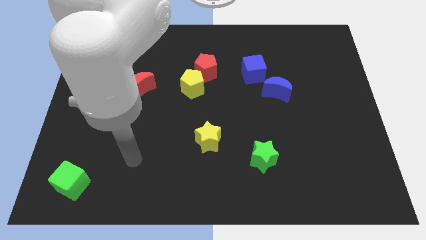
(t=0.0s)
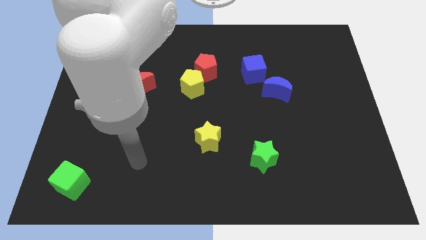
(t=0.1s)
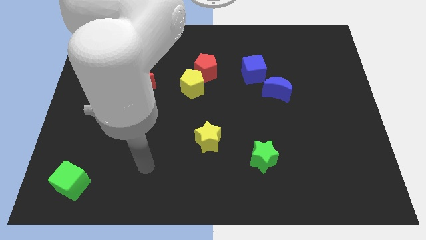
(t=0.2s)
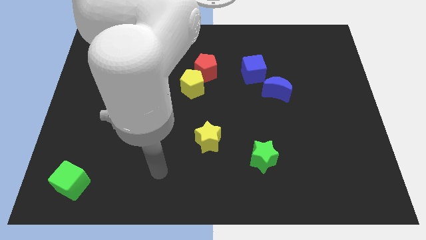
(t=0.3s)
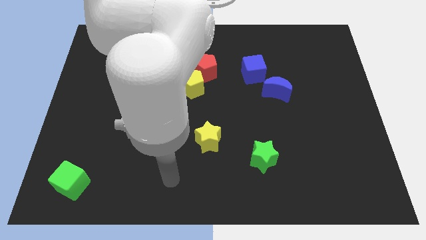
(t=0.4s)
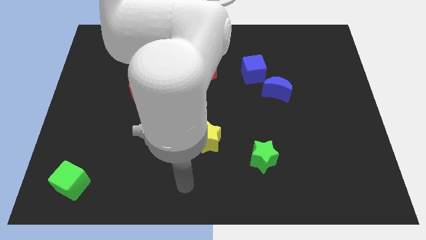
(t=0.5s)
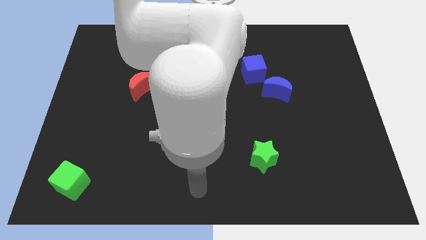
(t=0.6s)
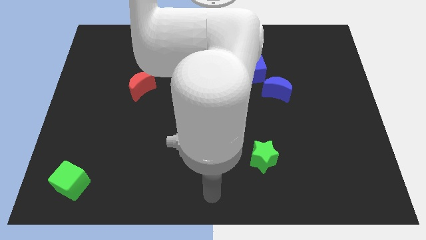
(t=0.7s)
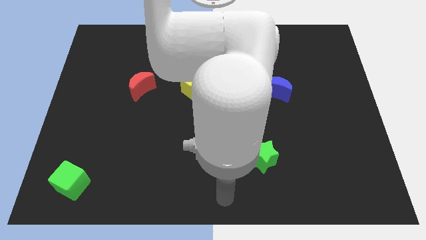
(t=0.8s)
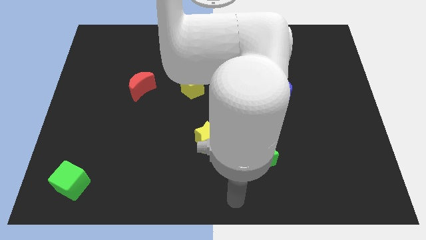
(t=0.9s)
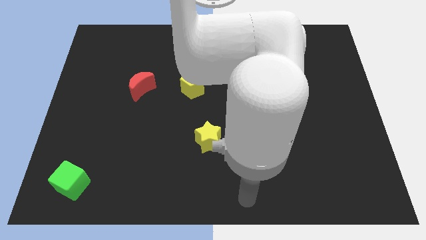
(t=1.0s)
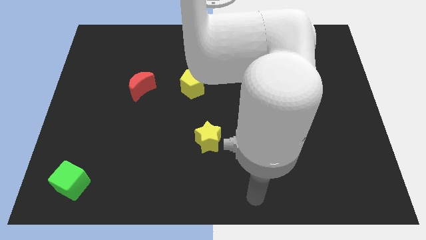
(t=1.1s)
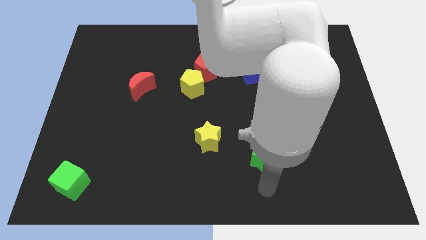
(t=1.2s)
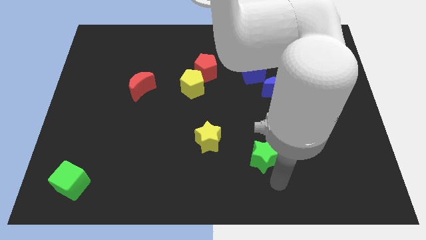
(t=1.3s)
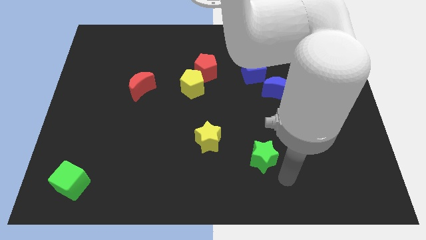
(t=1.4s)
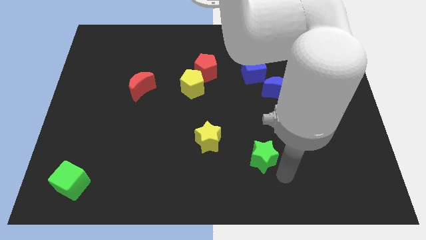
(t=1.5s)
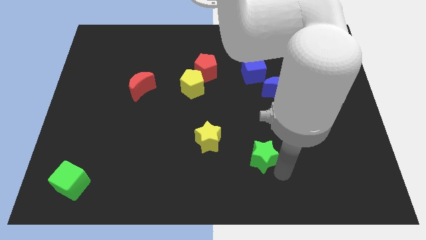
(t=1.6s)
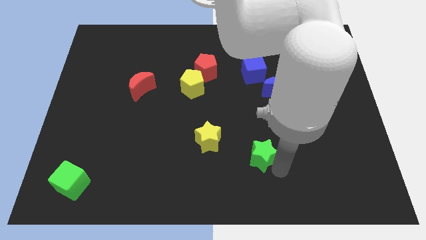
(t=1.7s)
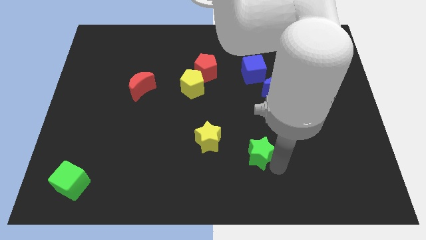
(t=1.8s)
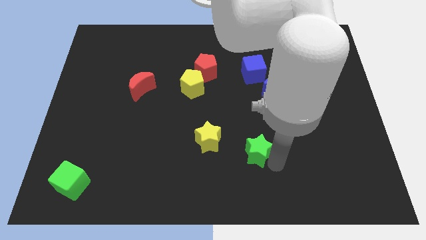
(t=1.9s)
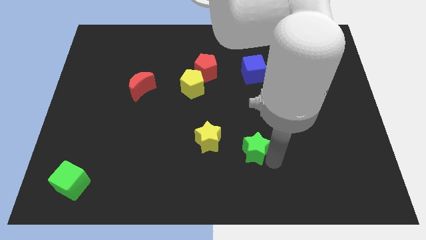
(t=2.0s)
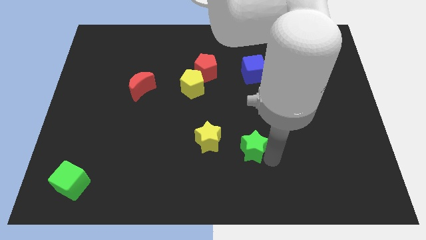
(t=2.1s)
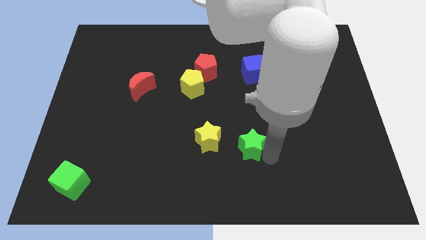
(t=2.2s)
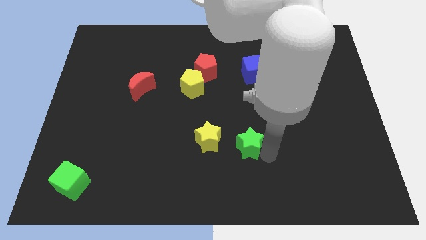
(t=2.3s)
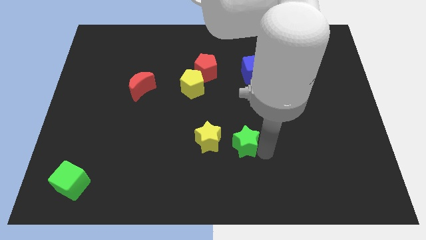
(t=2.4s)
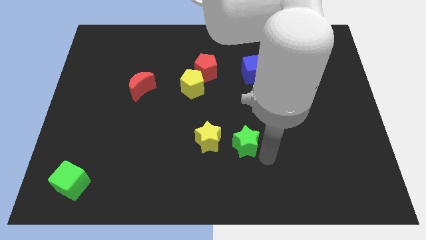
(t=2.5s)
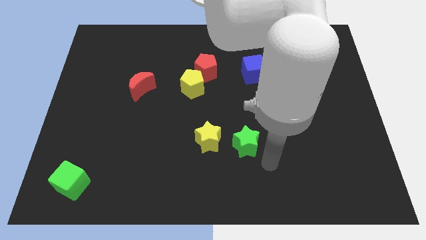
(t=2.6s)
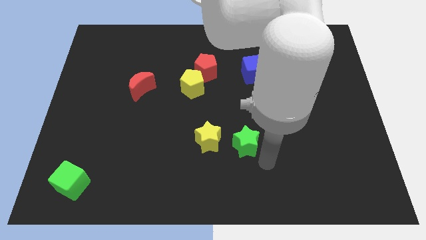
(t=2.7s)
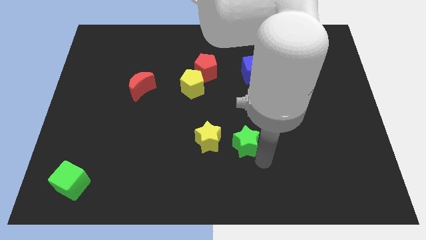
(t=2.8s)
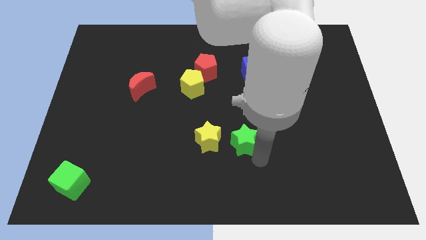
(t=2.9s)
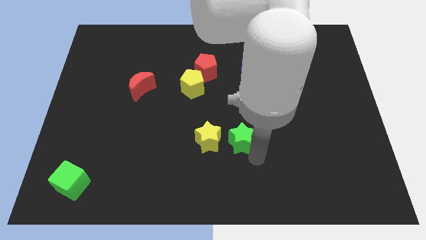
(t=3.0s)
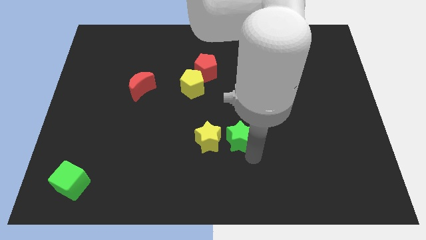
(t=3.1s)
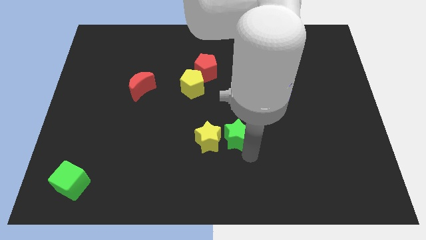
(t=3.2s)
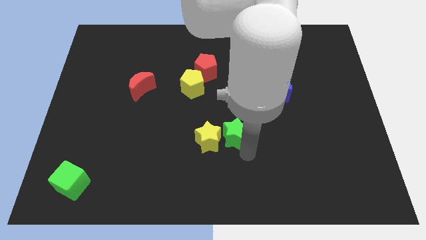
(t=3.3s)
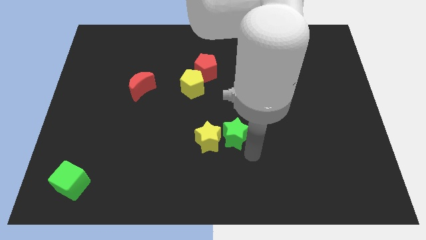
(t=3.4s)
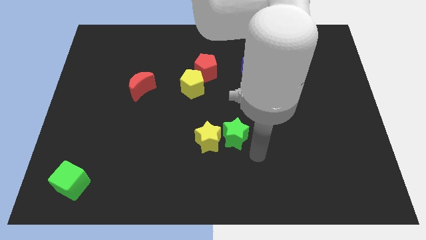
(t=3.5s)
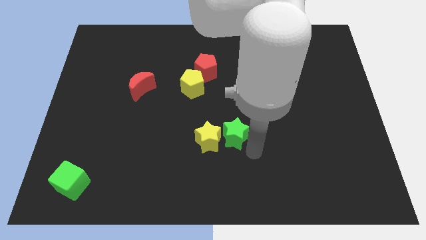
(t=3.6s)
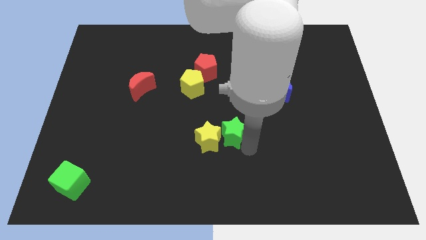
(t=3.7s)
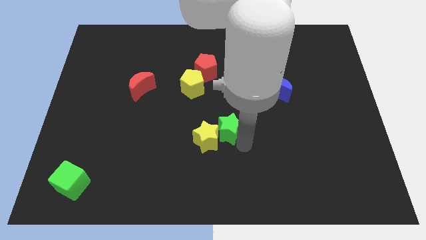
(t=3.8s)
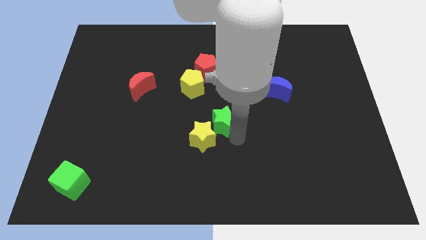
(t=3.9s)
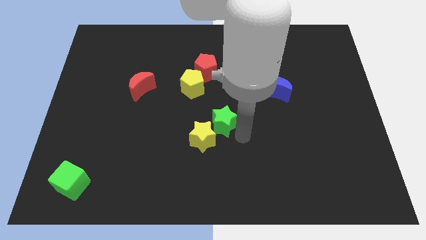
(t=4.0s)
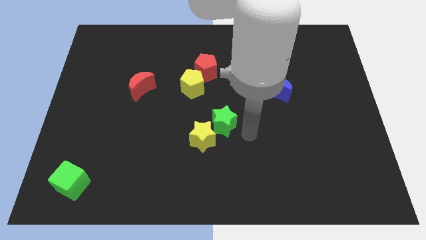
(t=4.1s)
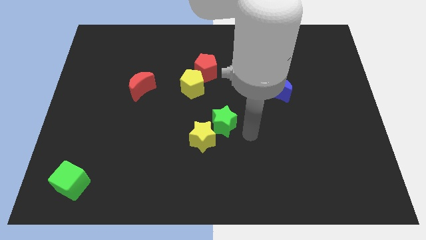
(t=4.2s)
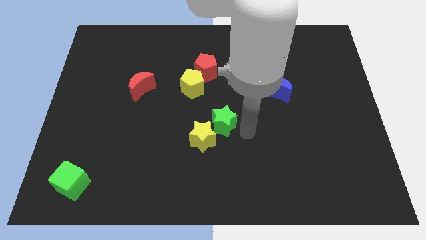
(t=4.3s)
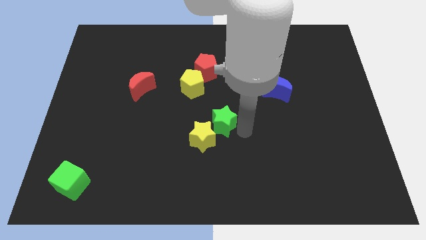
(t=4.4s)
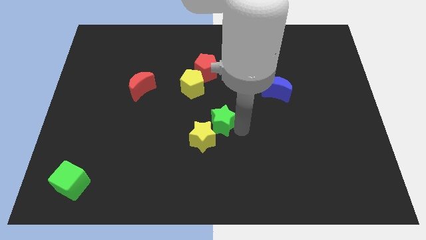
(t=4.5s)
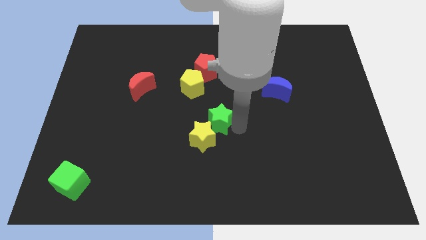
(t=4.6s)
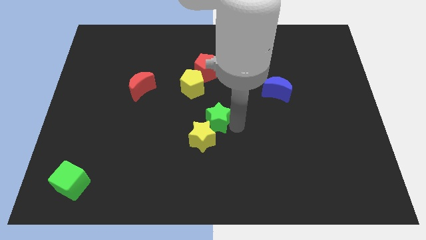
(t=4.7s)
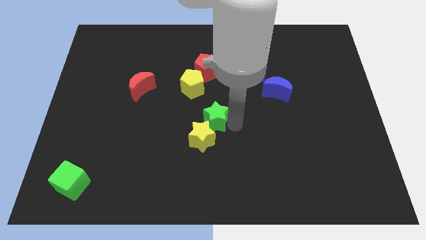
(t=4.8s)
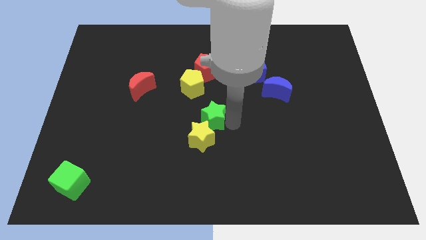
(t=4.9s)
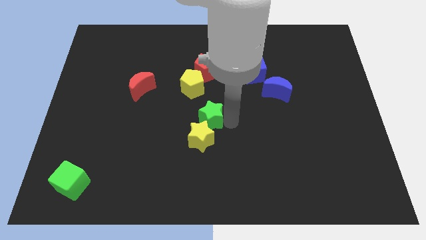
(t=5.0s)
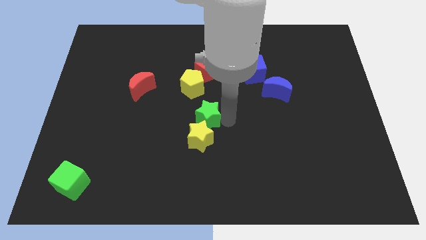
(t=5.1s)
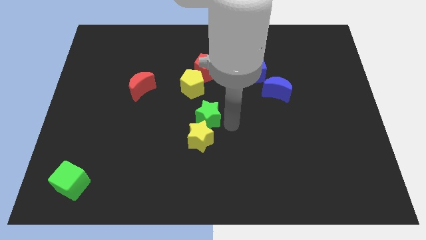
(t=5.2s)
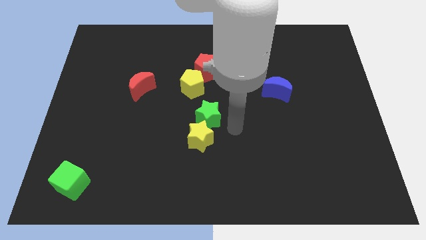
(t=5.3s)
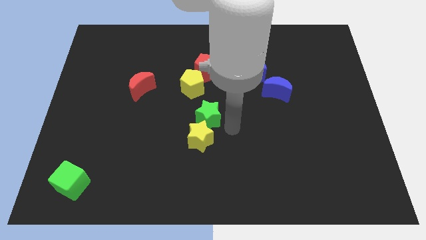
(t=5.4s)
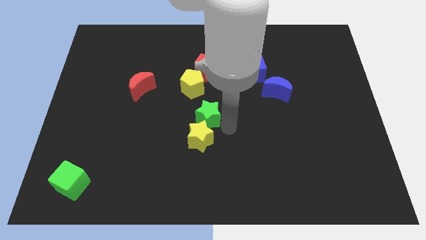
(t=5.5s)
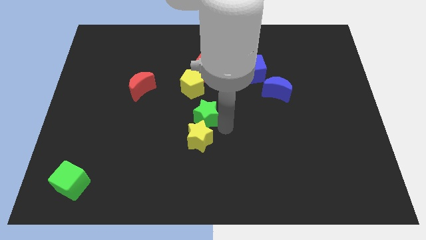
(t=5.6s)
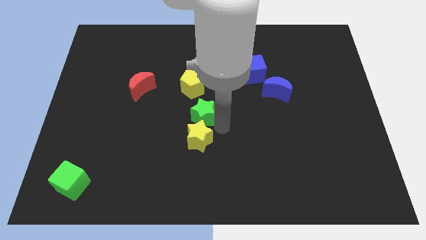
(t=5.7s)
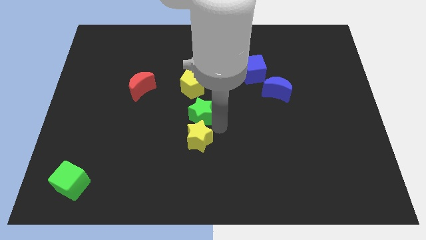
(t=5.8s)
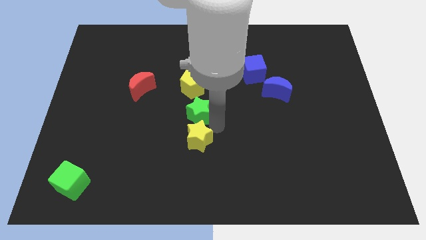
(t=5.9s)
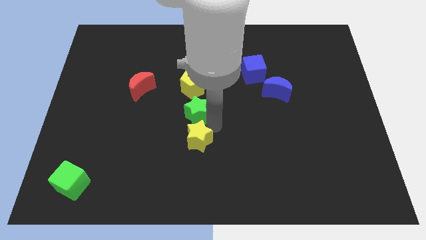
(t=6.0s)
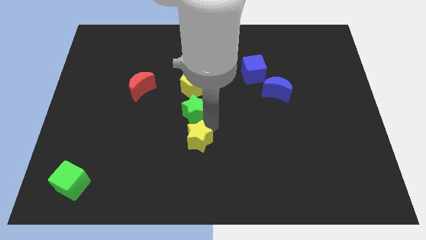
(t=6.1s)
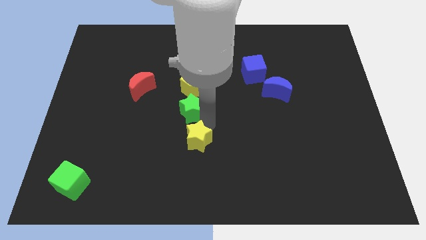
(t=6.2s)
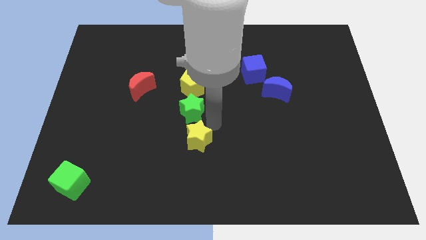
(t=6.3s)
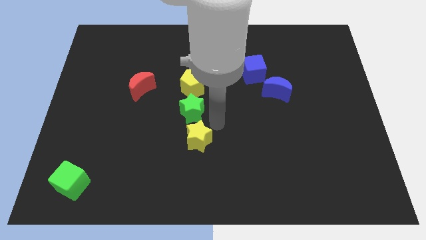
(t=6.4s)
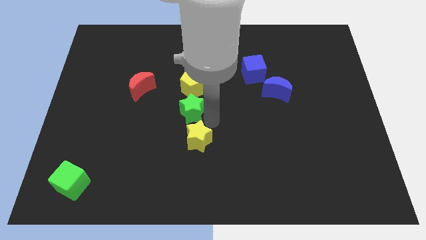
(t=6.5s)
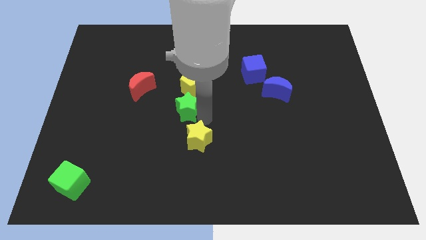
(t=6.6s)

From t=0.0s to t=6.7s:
put the green star to the bottom left side of the yellow pentagon
